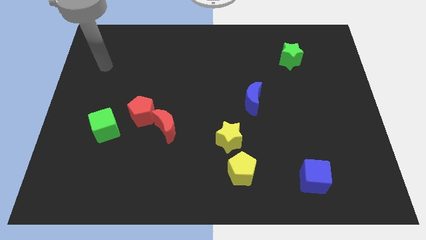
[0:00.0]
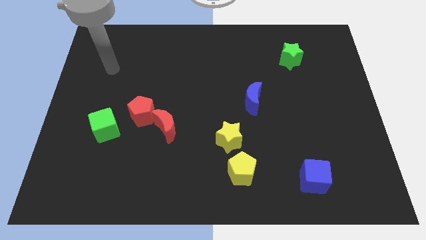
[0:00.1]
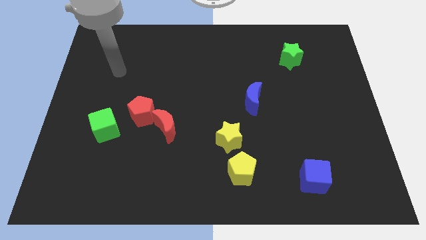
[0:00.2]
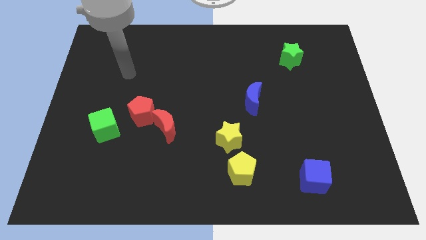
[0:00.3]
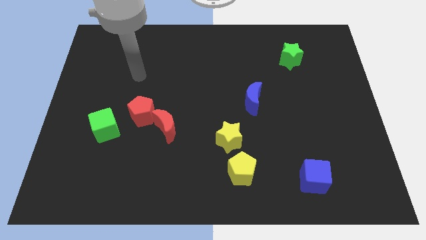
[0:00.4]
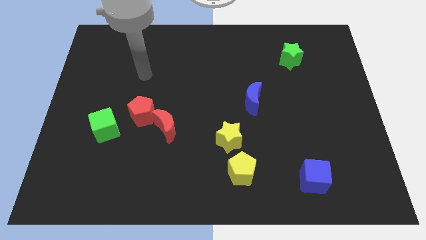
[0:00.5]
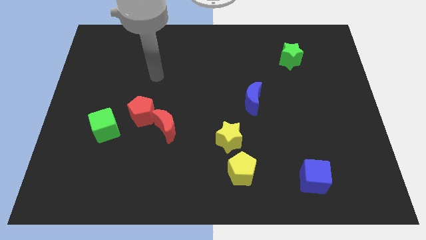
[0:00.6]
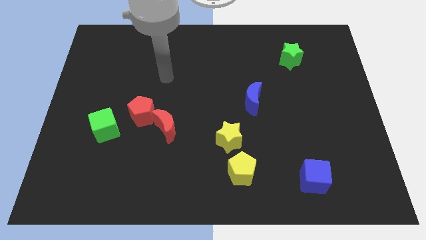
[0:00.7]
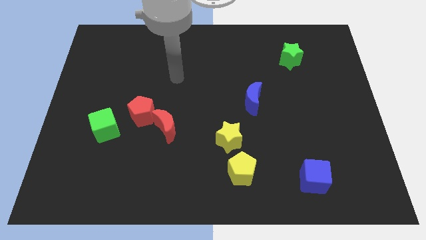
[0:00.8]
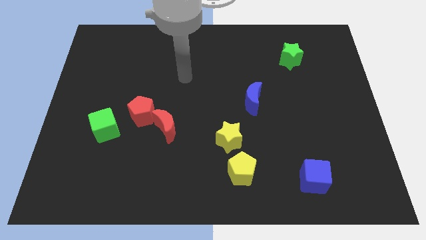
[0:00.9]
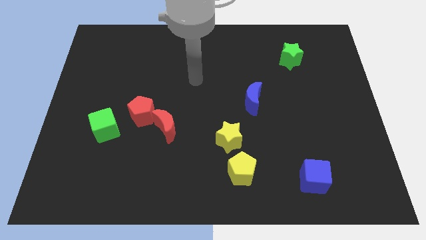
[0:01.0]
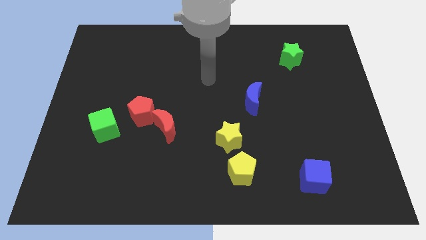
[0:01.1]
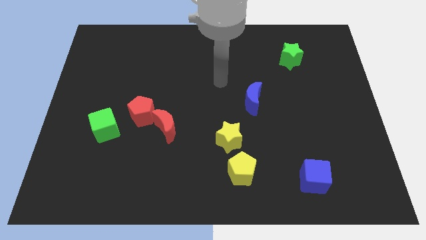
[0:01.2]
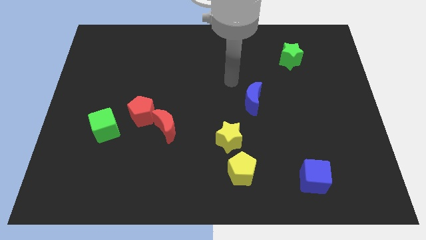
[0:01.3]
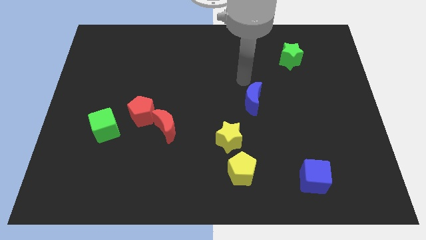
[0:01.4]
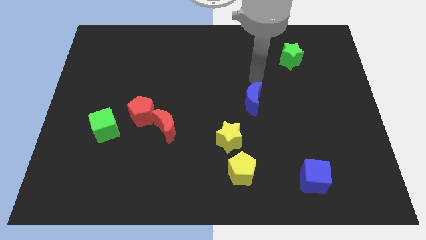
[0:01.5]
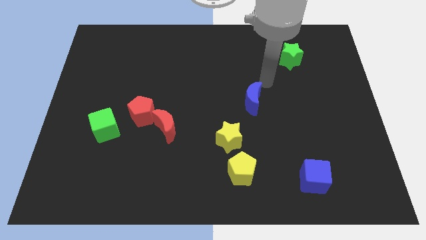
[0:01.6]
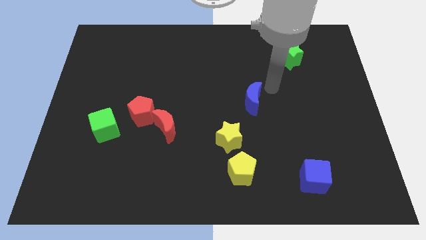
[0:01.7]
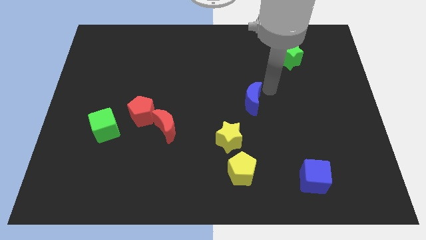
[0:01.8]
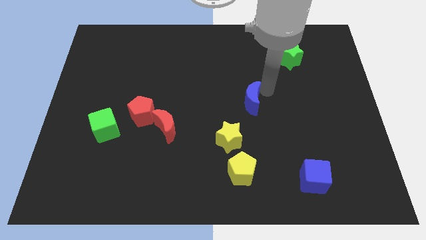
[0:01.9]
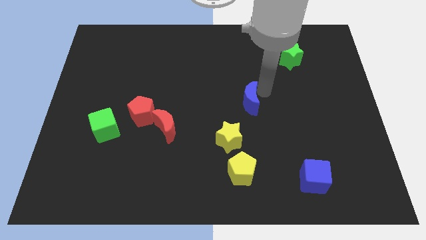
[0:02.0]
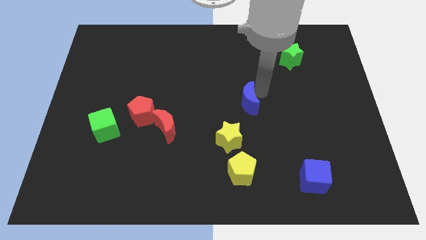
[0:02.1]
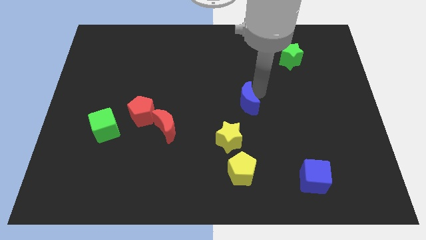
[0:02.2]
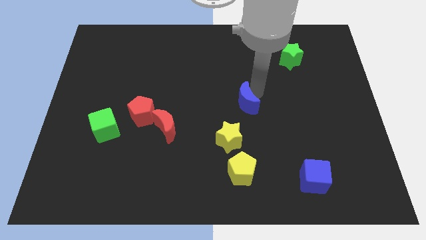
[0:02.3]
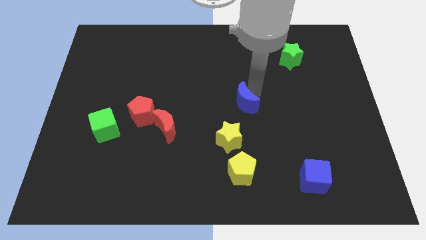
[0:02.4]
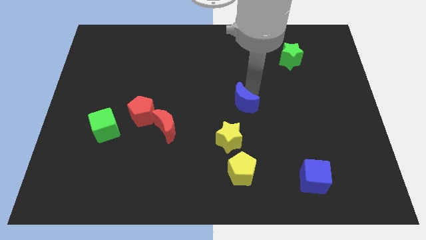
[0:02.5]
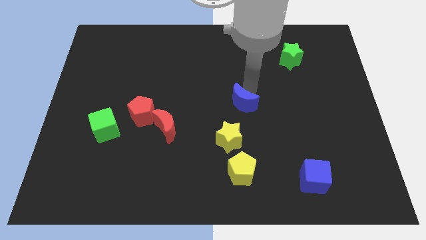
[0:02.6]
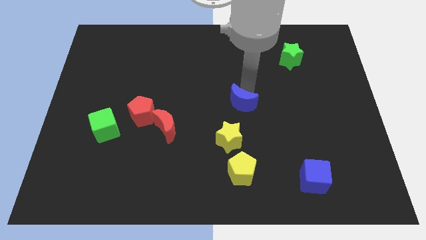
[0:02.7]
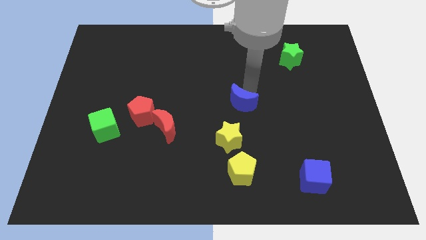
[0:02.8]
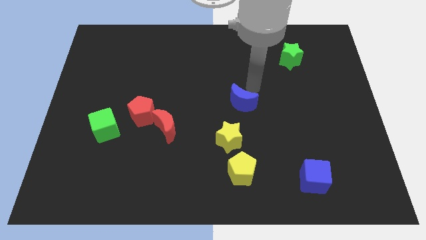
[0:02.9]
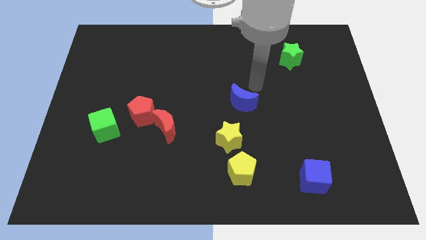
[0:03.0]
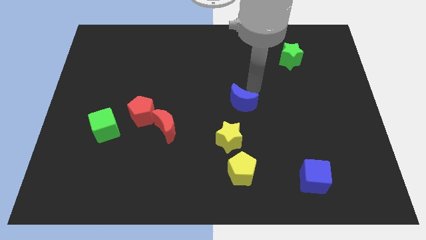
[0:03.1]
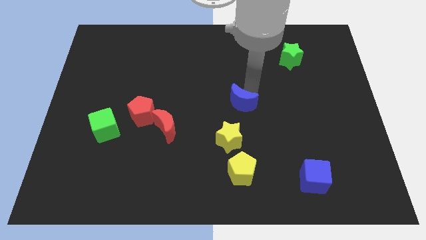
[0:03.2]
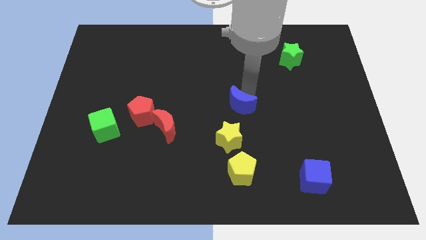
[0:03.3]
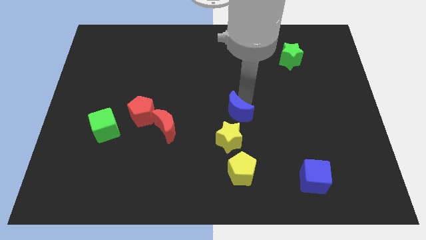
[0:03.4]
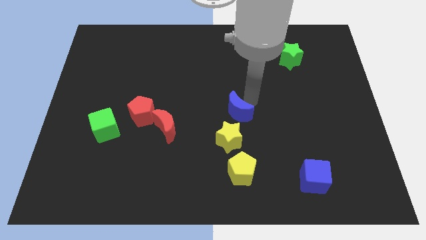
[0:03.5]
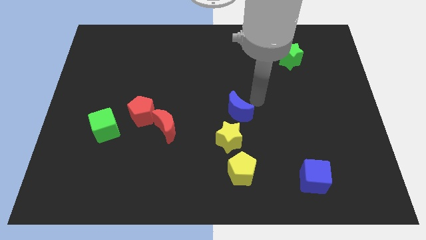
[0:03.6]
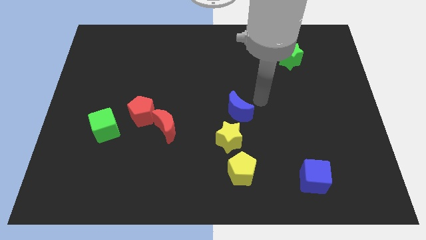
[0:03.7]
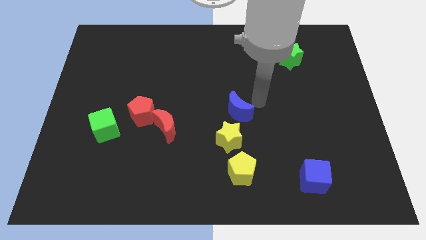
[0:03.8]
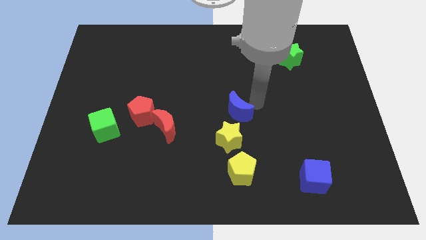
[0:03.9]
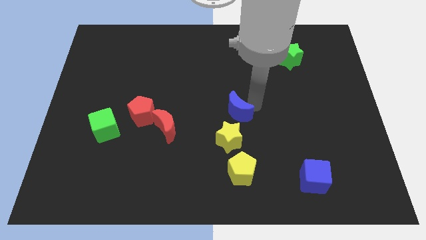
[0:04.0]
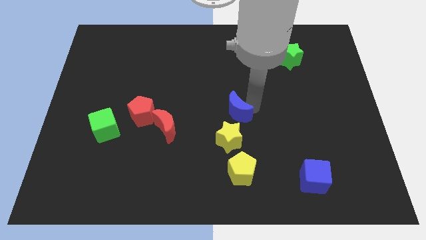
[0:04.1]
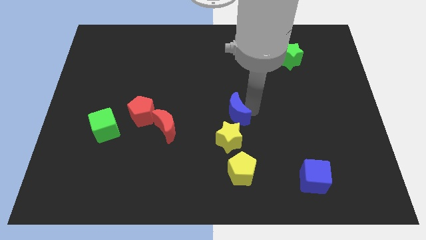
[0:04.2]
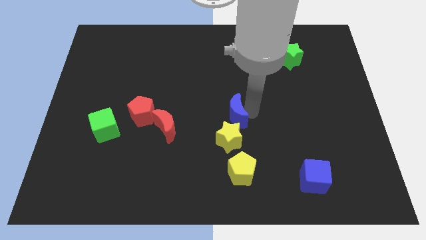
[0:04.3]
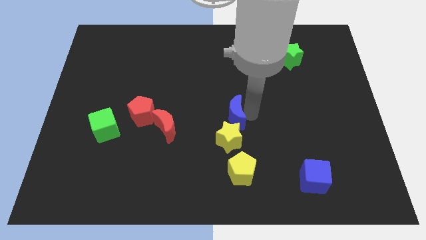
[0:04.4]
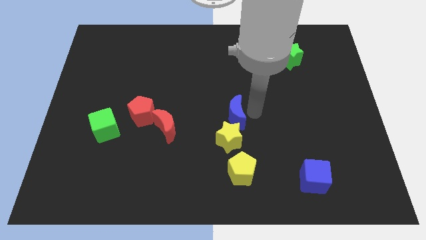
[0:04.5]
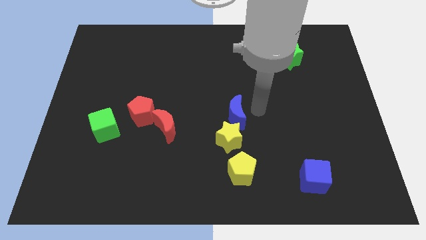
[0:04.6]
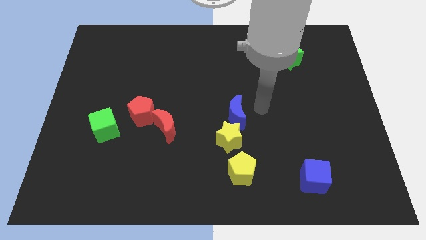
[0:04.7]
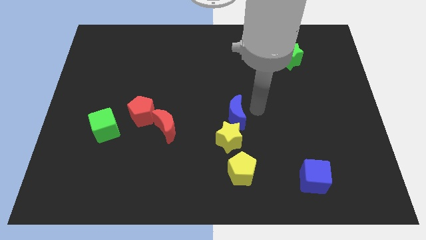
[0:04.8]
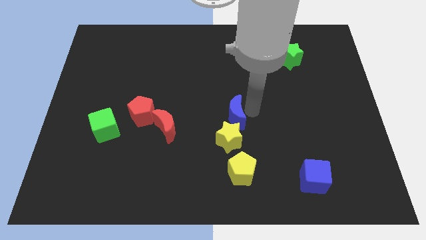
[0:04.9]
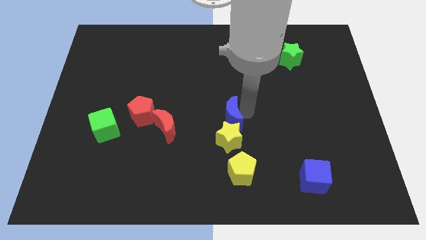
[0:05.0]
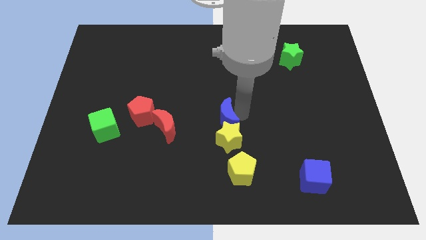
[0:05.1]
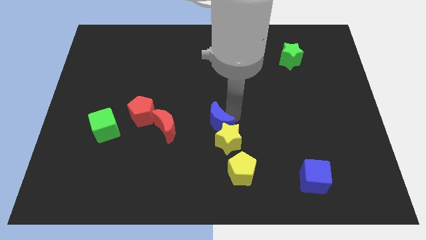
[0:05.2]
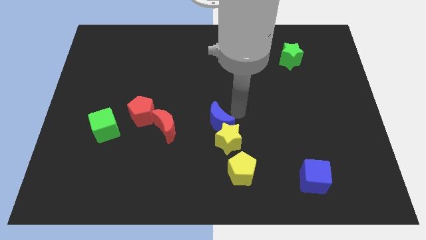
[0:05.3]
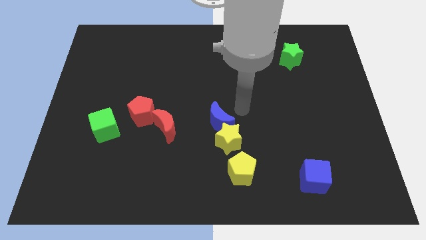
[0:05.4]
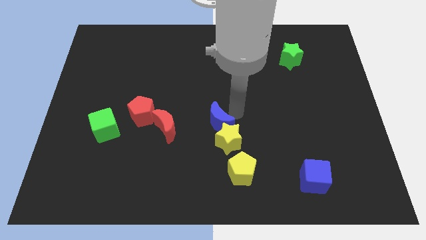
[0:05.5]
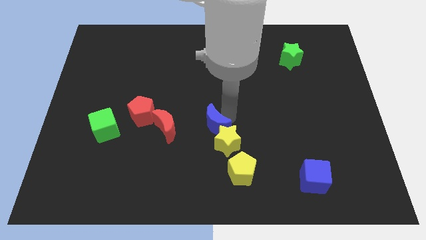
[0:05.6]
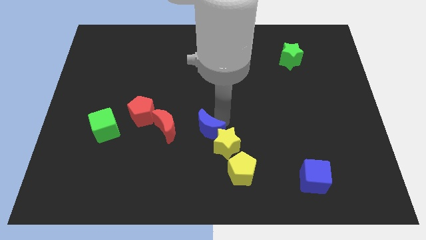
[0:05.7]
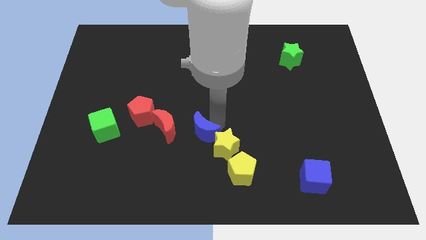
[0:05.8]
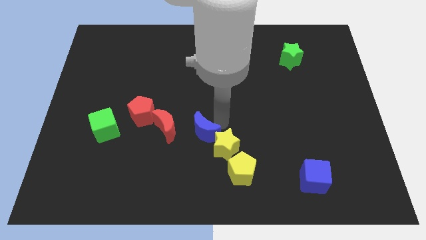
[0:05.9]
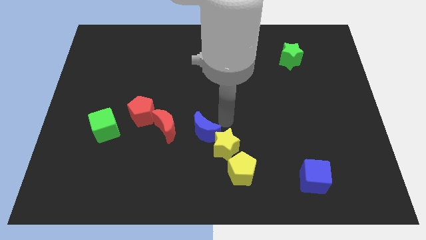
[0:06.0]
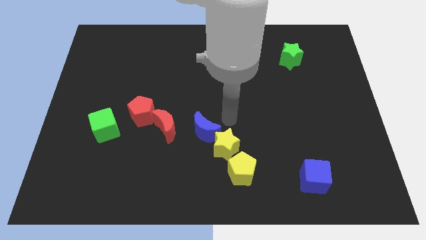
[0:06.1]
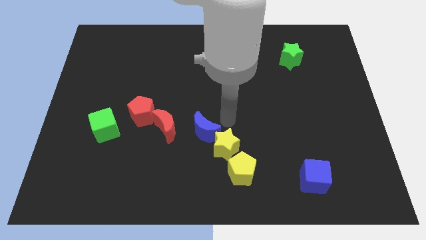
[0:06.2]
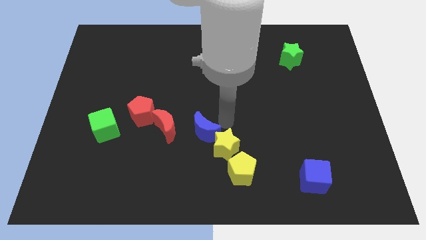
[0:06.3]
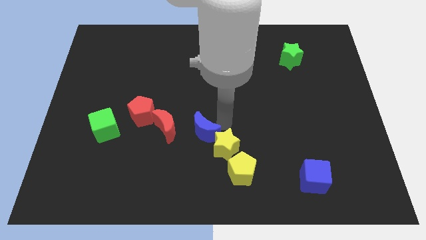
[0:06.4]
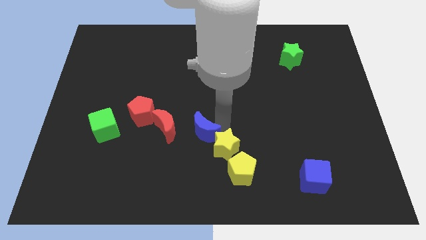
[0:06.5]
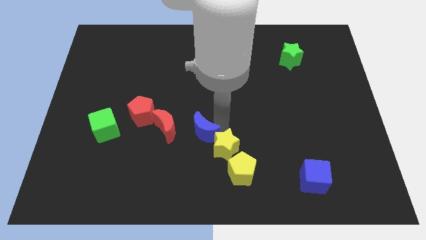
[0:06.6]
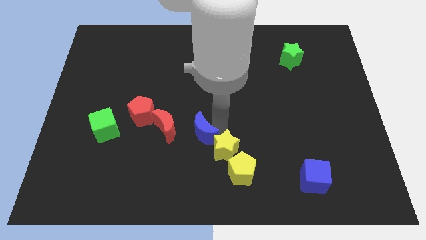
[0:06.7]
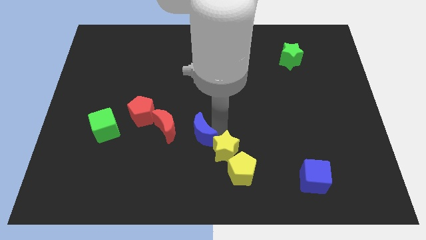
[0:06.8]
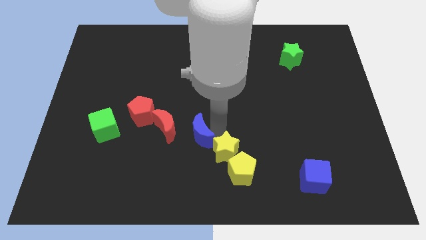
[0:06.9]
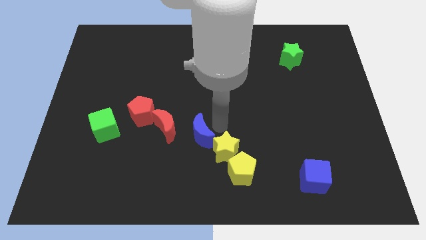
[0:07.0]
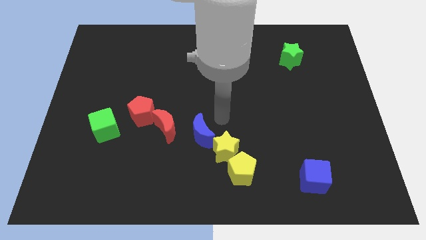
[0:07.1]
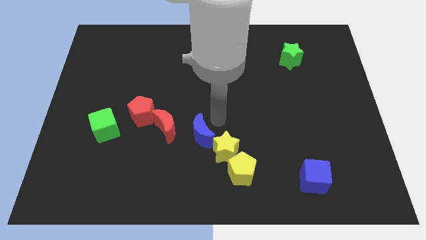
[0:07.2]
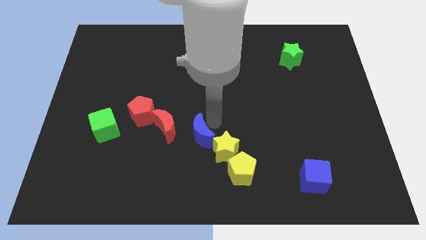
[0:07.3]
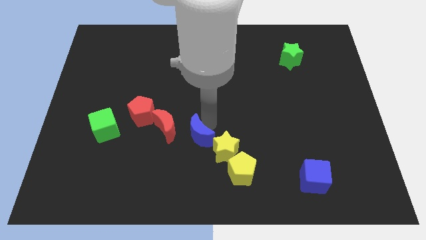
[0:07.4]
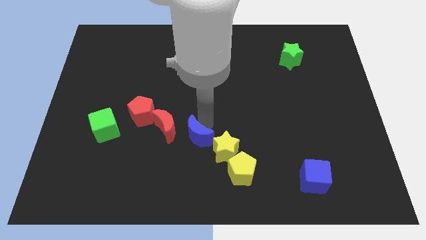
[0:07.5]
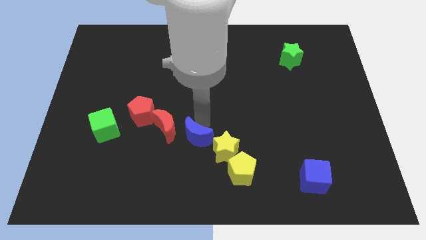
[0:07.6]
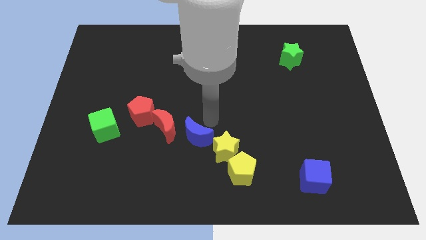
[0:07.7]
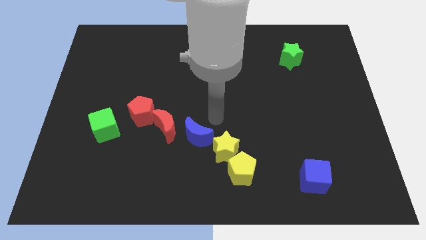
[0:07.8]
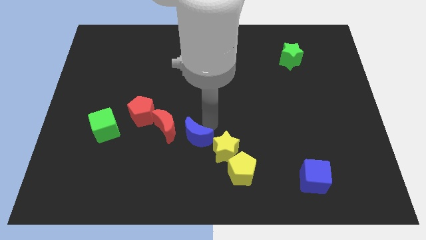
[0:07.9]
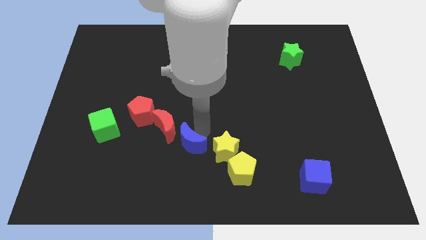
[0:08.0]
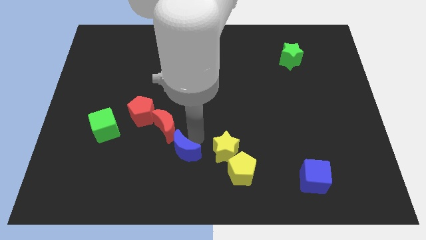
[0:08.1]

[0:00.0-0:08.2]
push the blue moon to the bottom side of the red moon
